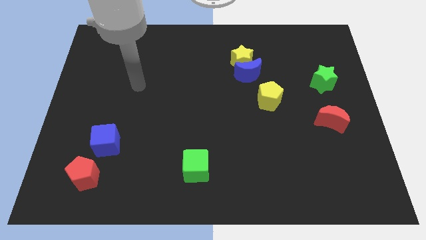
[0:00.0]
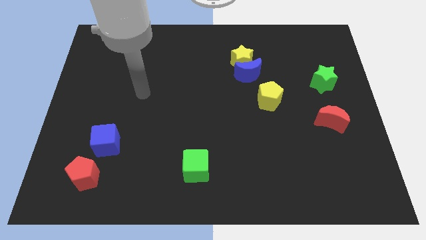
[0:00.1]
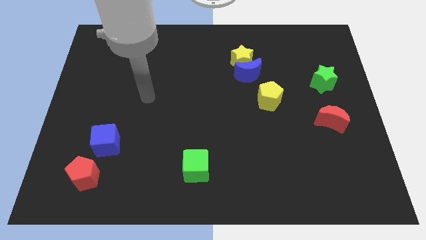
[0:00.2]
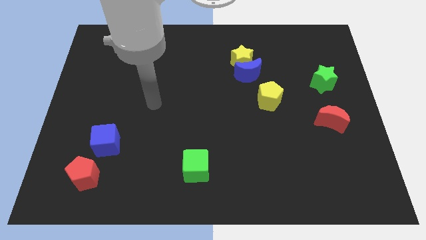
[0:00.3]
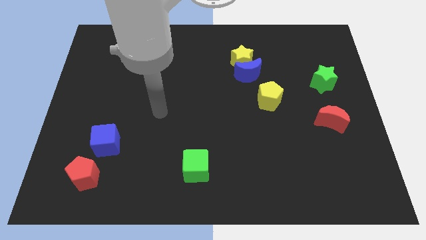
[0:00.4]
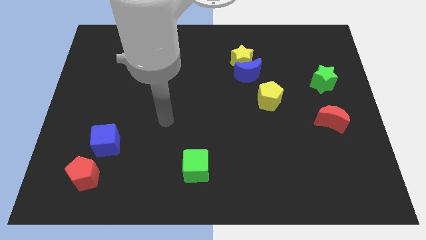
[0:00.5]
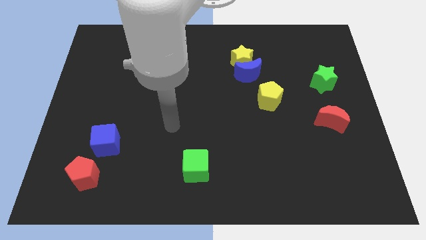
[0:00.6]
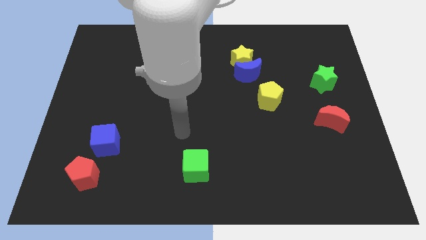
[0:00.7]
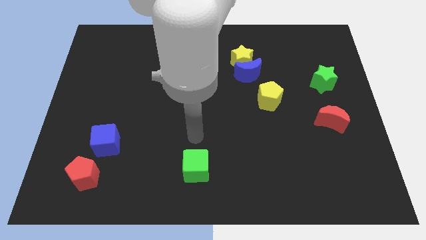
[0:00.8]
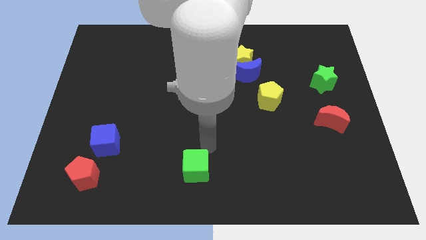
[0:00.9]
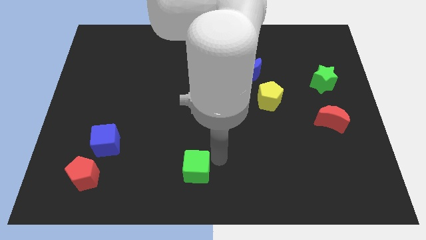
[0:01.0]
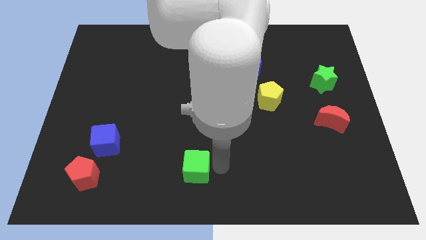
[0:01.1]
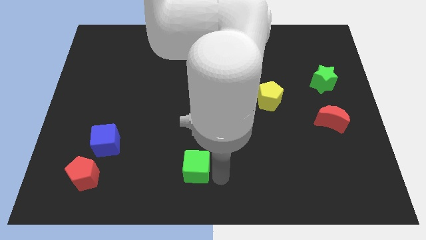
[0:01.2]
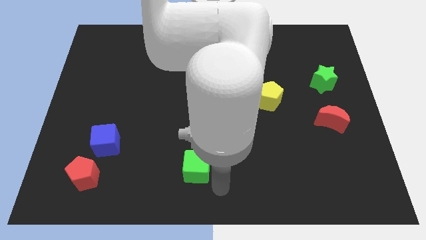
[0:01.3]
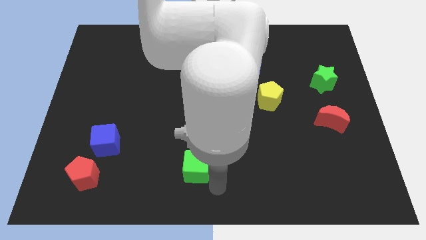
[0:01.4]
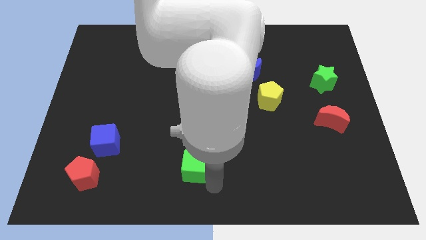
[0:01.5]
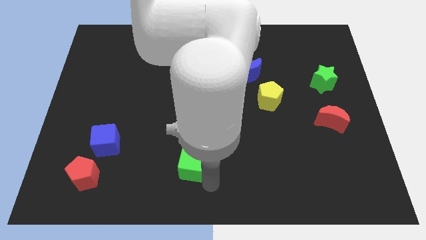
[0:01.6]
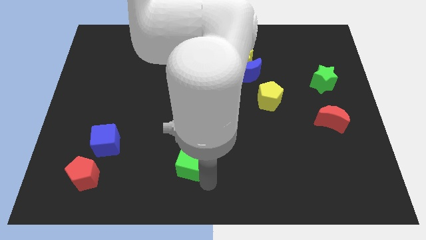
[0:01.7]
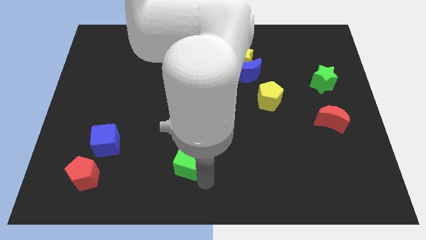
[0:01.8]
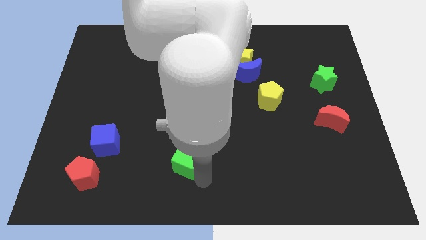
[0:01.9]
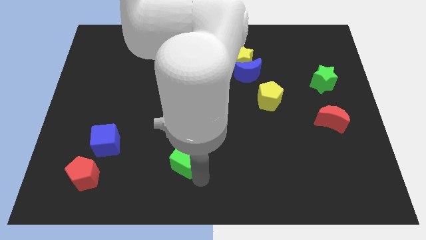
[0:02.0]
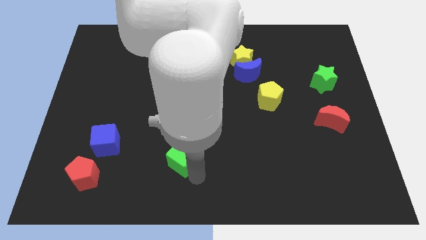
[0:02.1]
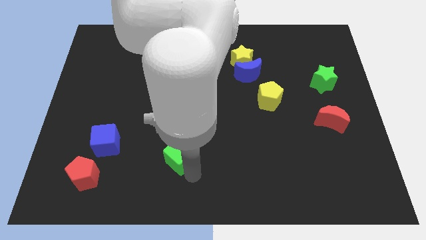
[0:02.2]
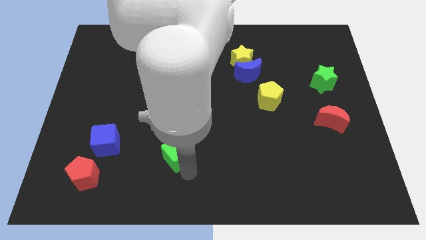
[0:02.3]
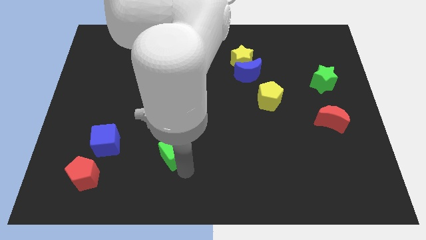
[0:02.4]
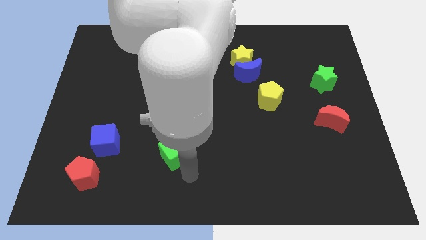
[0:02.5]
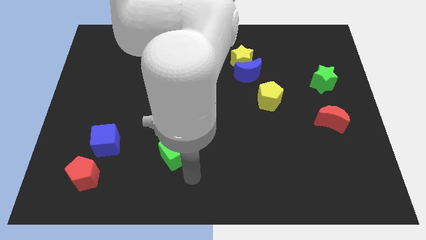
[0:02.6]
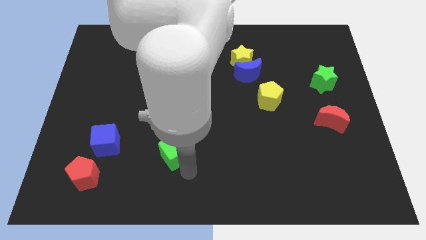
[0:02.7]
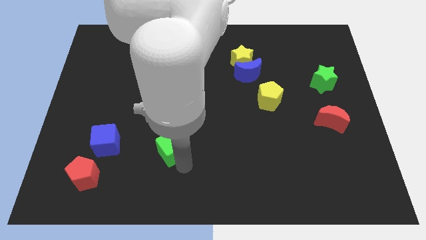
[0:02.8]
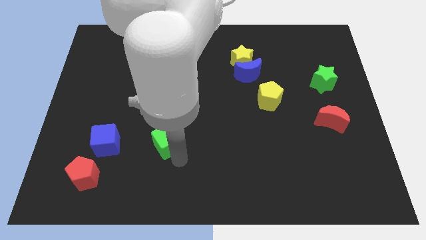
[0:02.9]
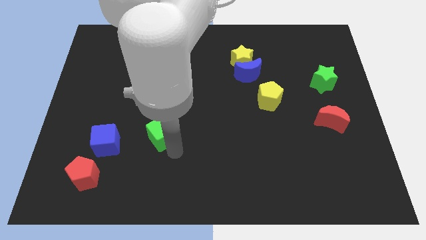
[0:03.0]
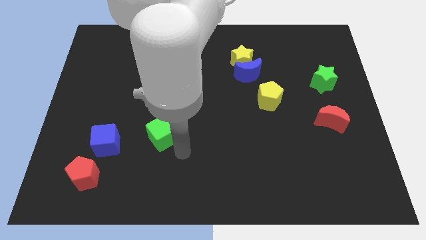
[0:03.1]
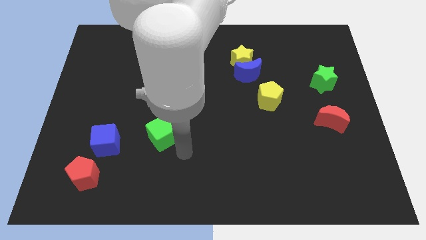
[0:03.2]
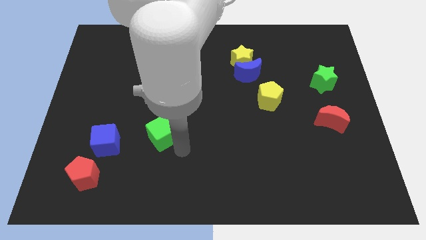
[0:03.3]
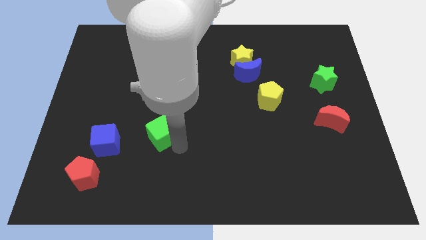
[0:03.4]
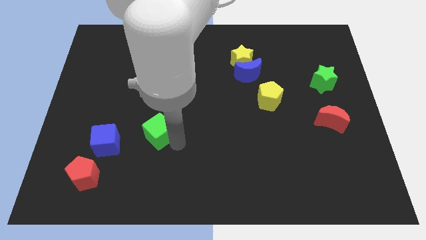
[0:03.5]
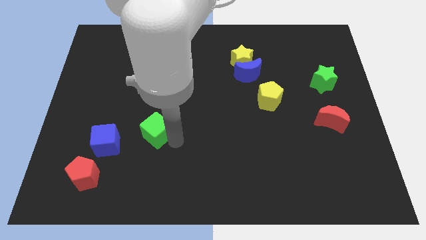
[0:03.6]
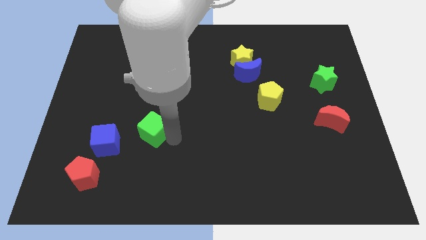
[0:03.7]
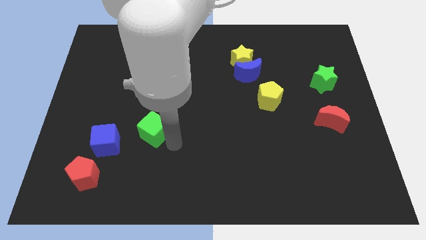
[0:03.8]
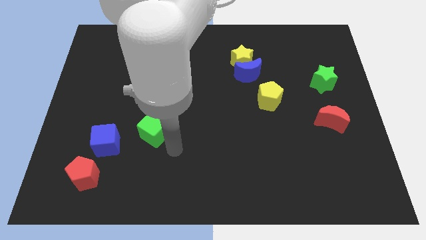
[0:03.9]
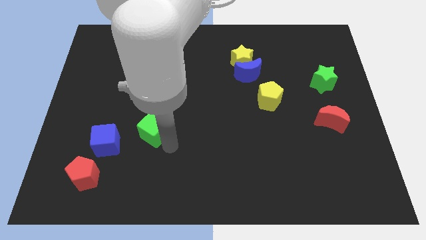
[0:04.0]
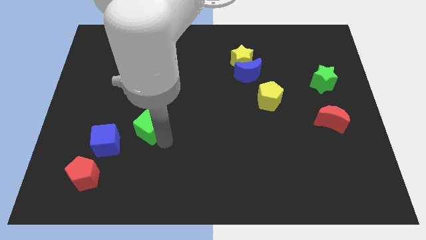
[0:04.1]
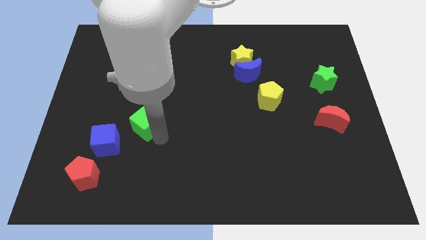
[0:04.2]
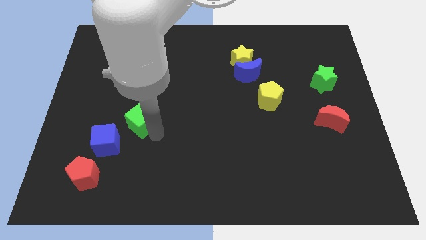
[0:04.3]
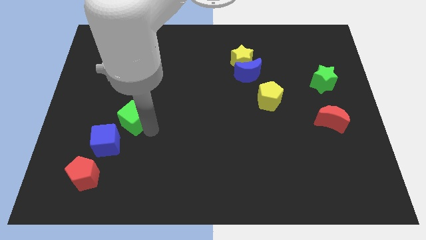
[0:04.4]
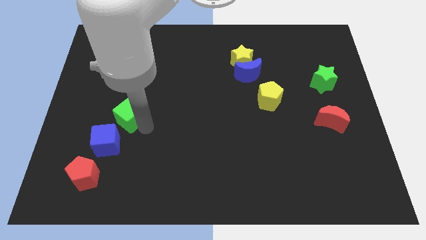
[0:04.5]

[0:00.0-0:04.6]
move the green cube diagonally up and to the left

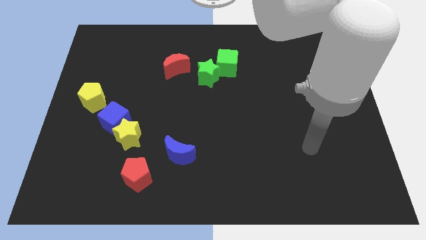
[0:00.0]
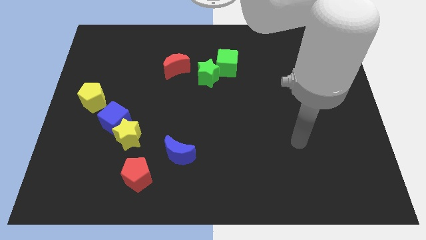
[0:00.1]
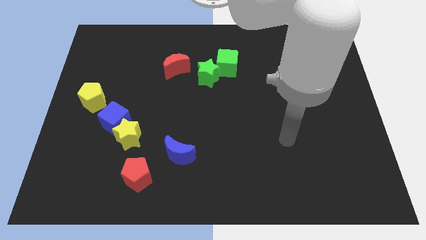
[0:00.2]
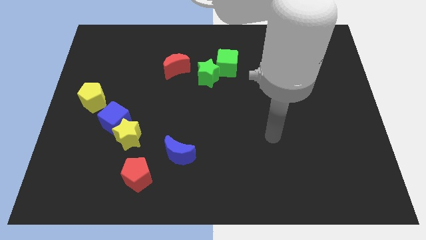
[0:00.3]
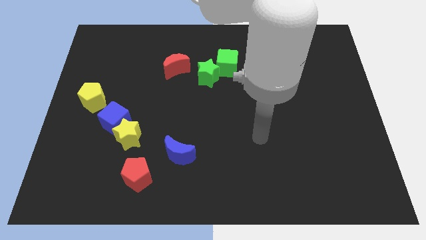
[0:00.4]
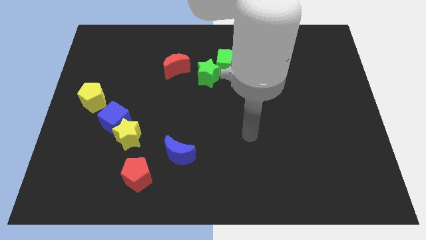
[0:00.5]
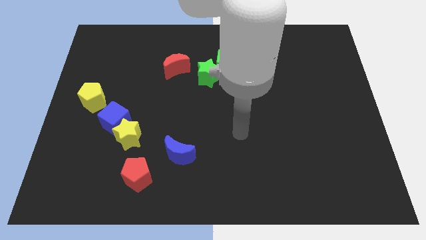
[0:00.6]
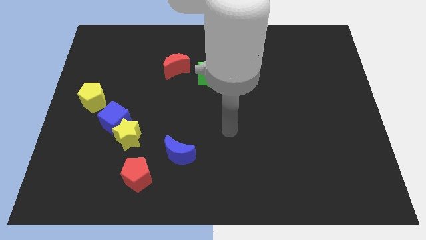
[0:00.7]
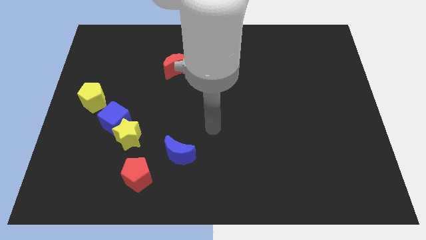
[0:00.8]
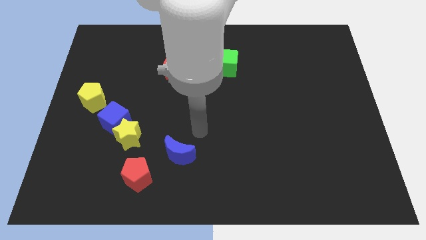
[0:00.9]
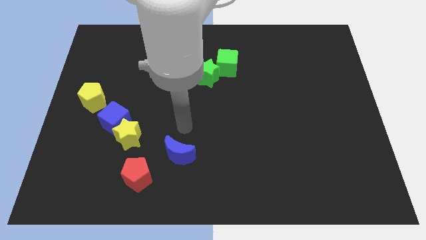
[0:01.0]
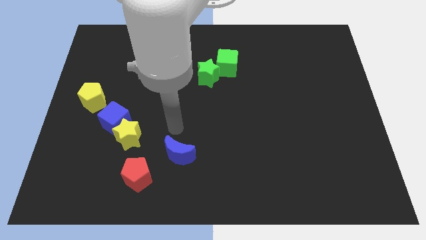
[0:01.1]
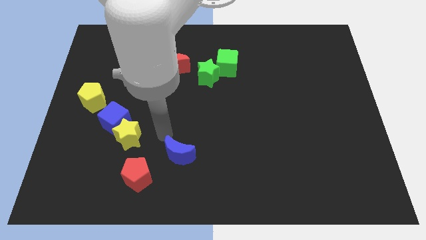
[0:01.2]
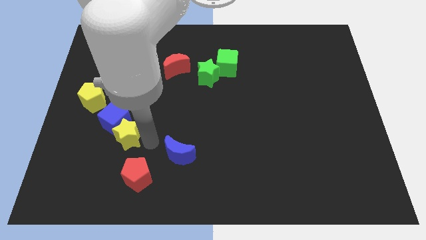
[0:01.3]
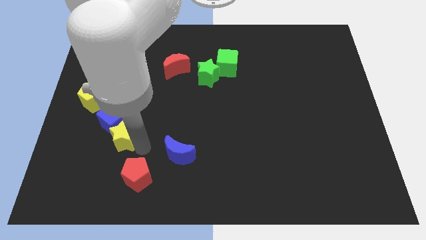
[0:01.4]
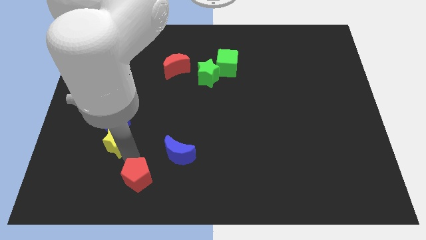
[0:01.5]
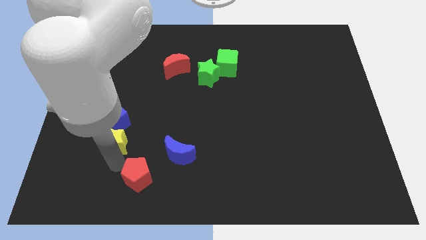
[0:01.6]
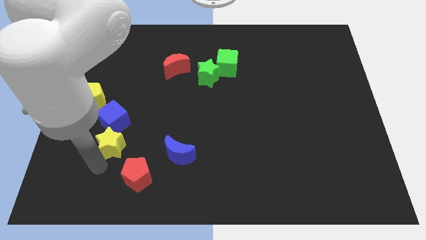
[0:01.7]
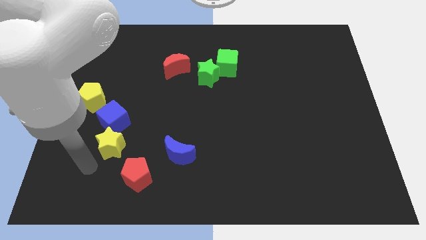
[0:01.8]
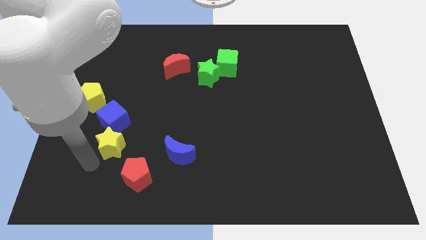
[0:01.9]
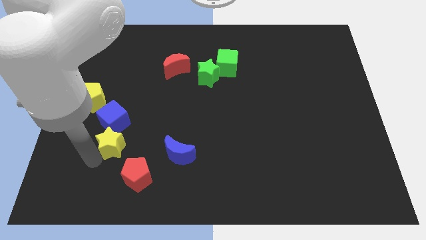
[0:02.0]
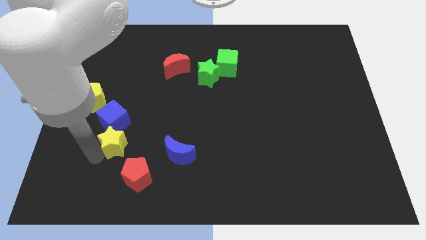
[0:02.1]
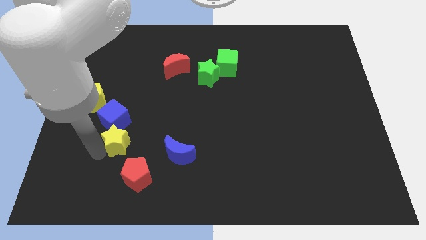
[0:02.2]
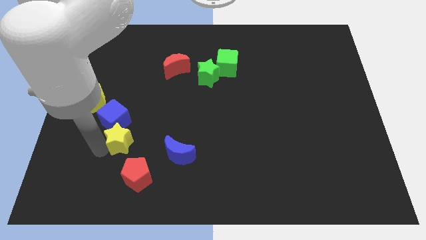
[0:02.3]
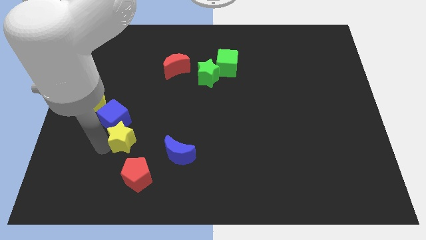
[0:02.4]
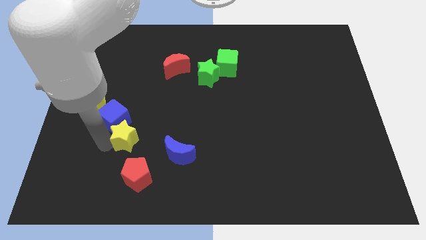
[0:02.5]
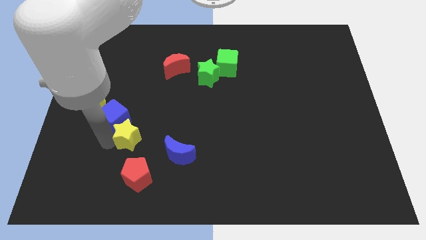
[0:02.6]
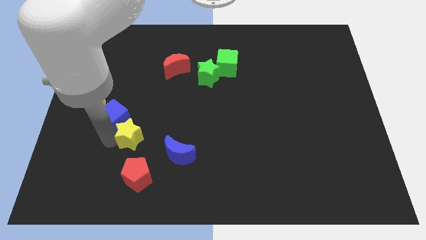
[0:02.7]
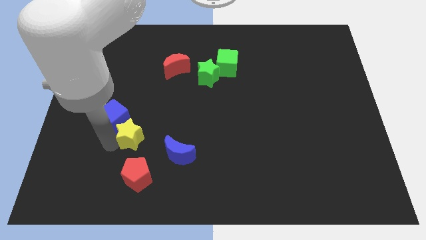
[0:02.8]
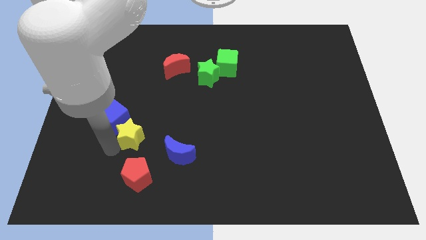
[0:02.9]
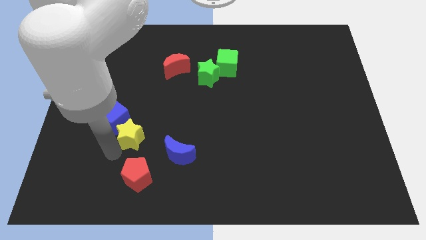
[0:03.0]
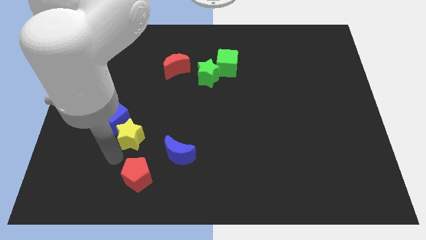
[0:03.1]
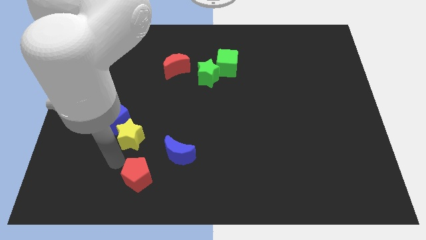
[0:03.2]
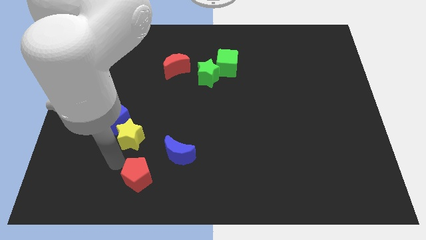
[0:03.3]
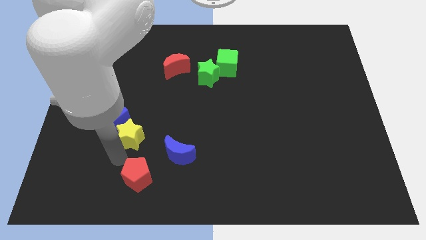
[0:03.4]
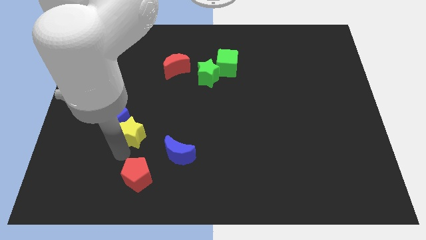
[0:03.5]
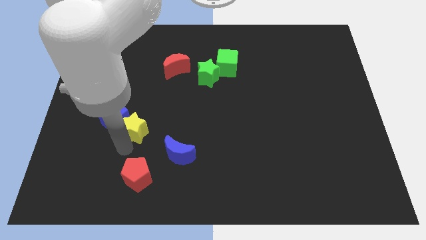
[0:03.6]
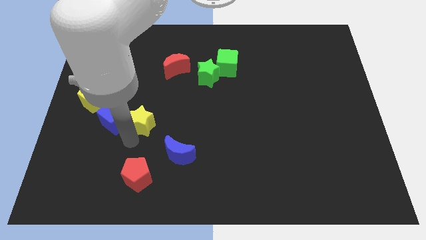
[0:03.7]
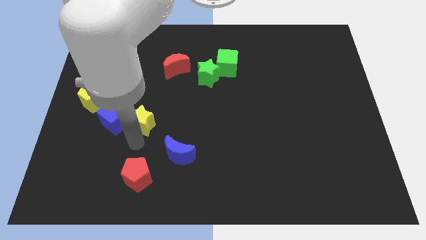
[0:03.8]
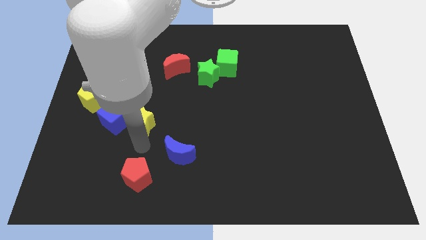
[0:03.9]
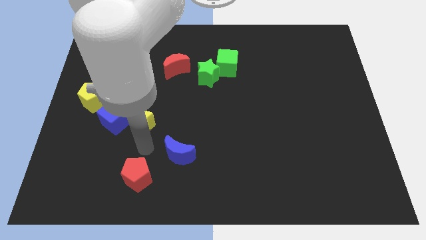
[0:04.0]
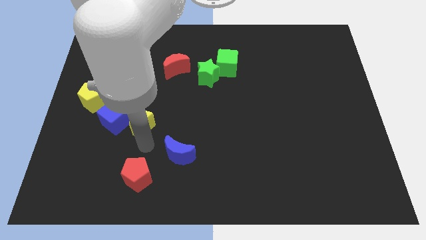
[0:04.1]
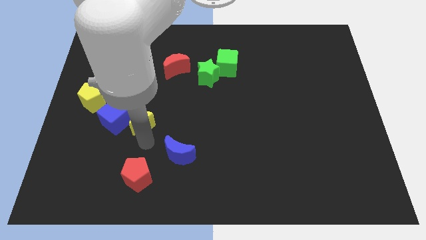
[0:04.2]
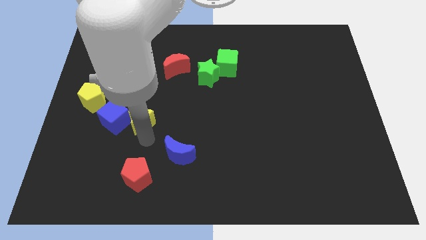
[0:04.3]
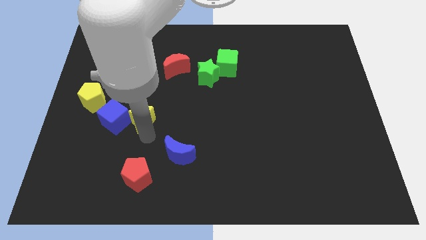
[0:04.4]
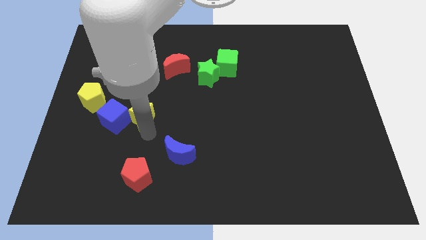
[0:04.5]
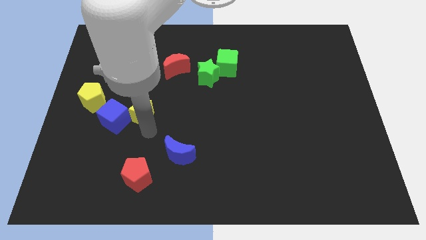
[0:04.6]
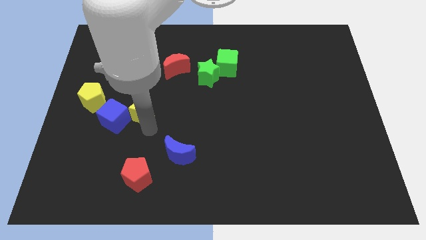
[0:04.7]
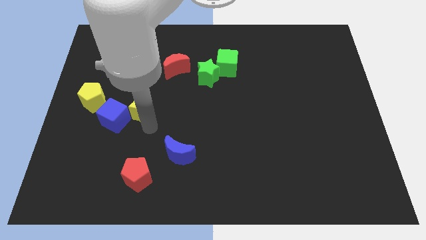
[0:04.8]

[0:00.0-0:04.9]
move the yellow star upwards a little
